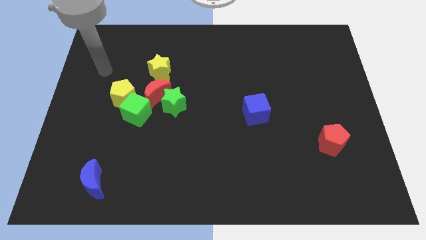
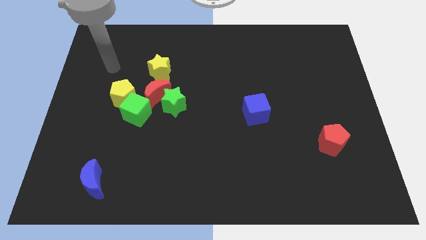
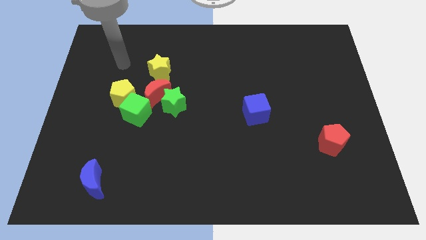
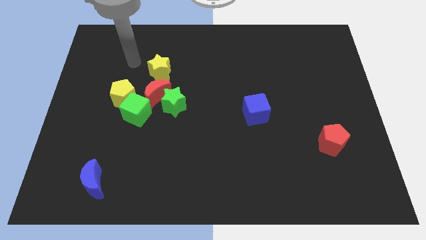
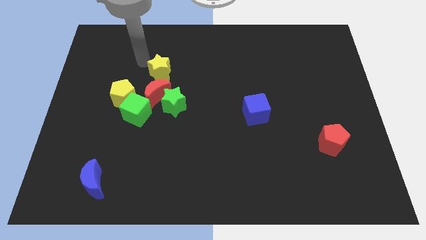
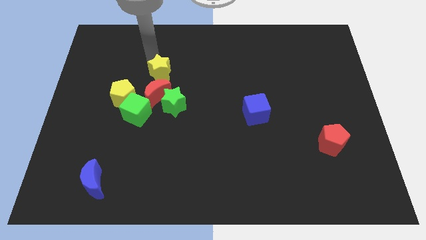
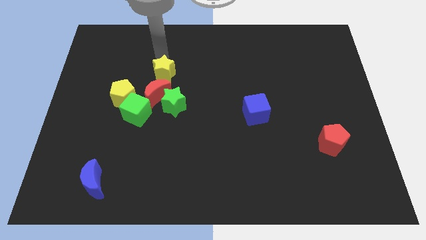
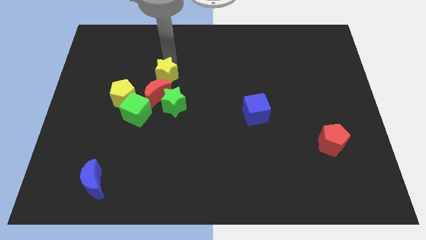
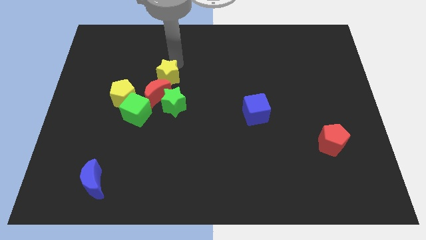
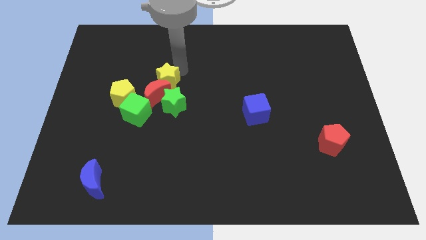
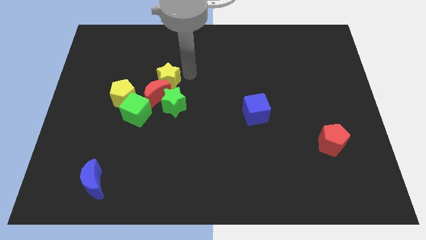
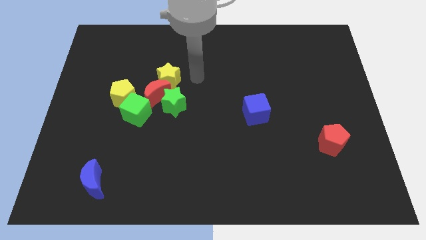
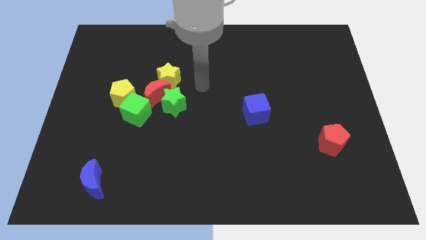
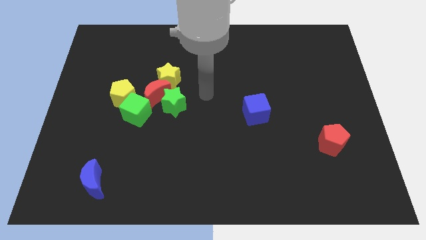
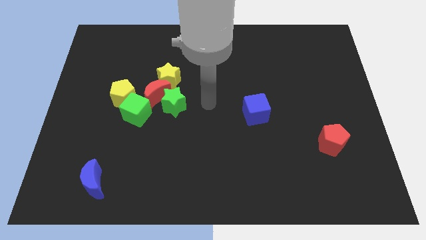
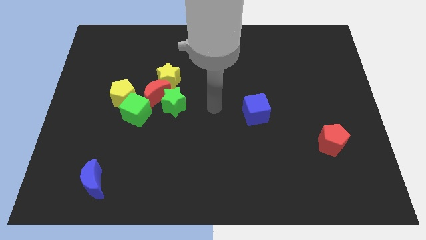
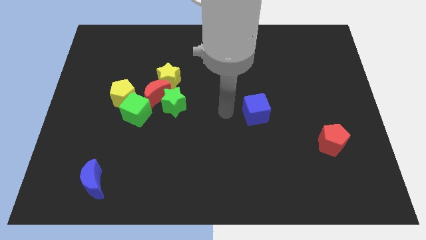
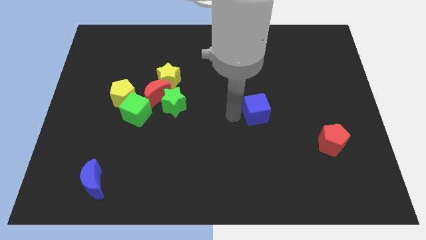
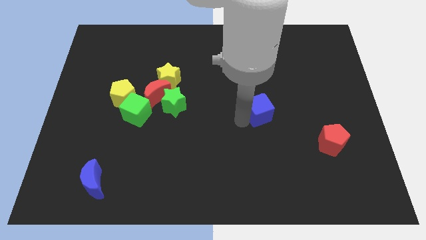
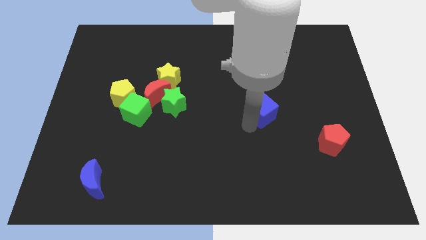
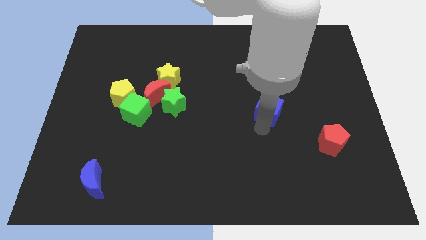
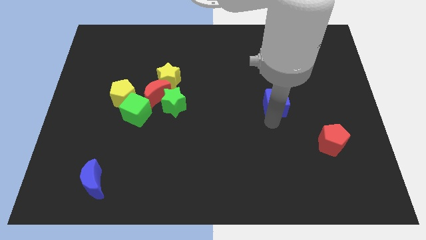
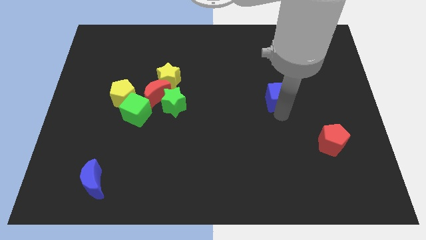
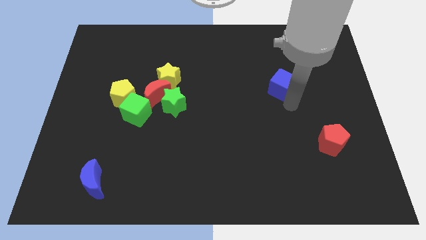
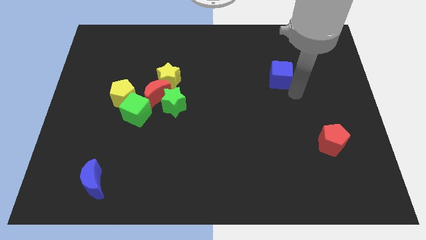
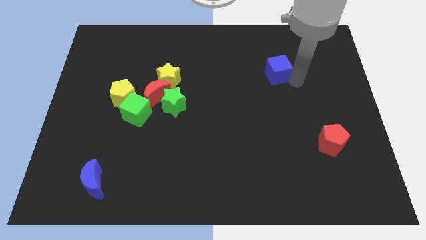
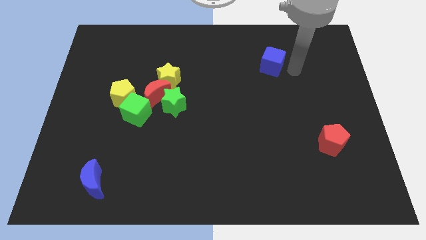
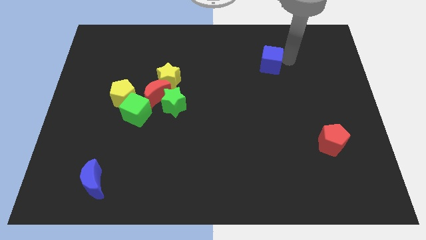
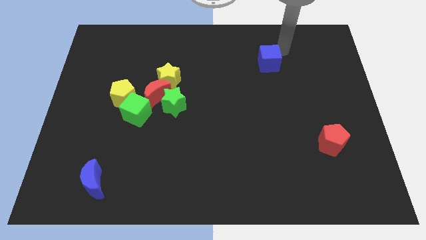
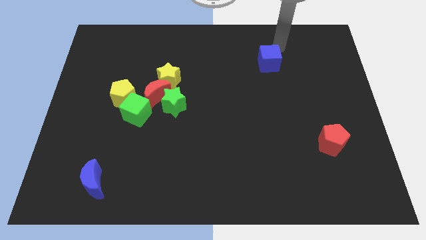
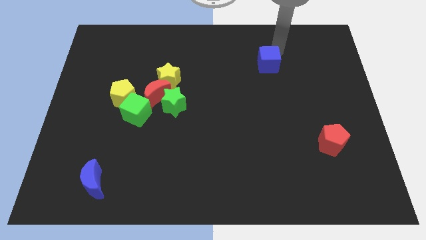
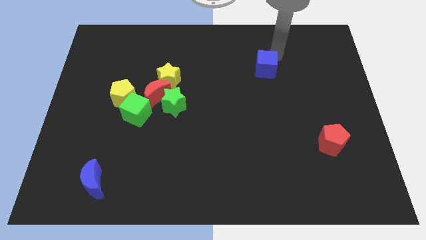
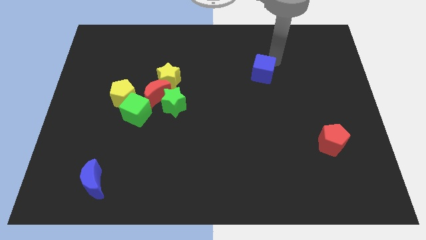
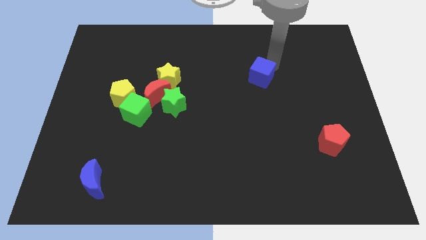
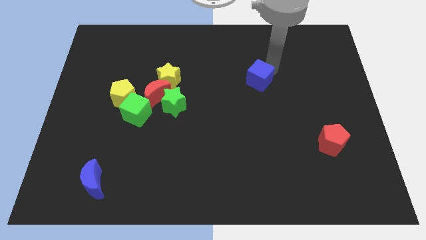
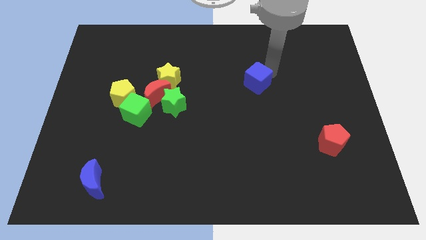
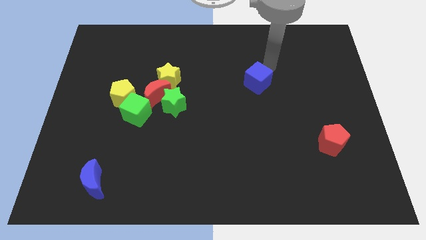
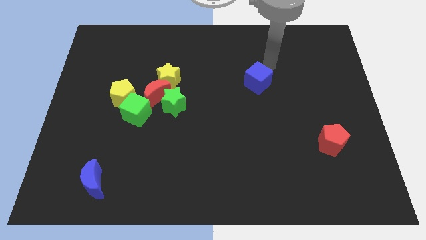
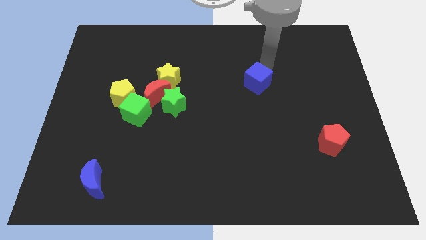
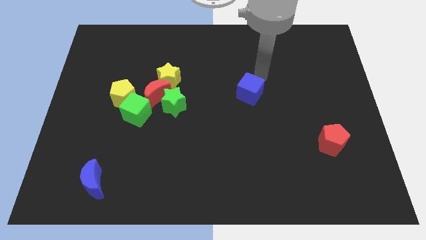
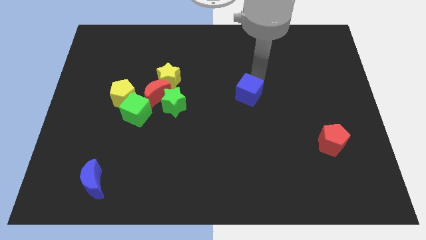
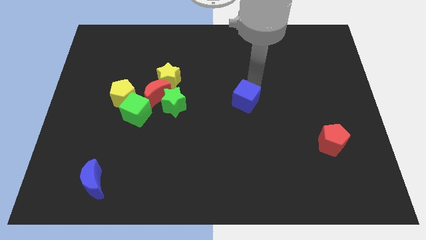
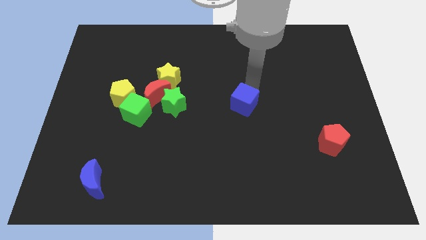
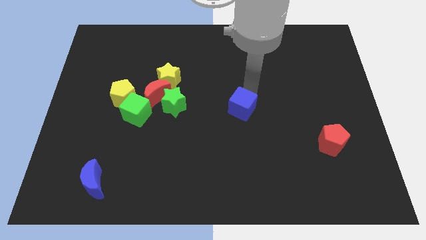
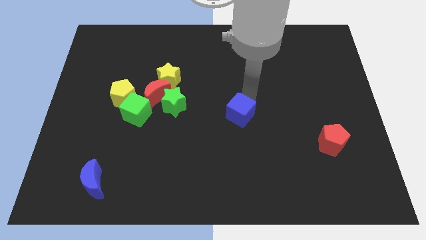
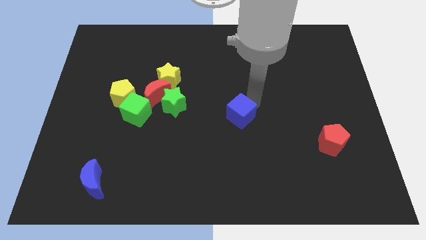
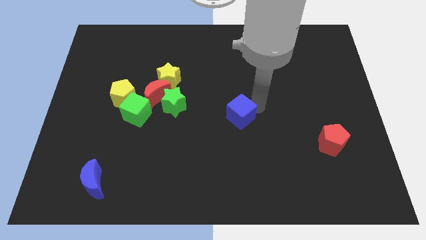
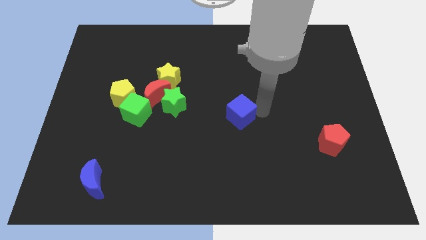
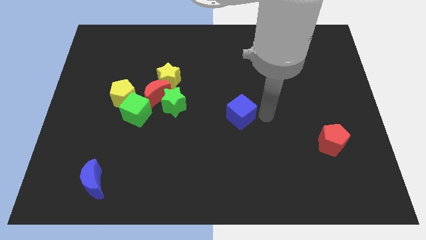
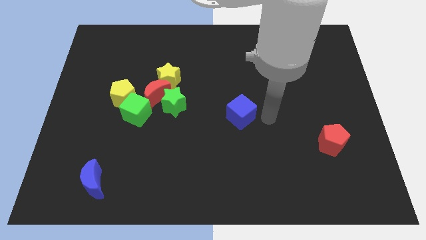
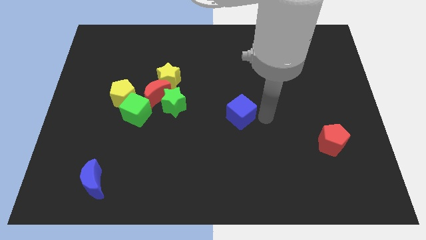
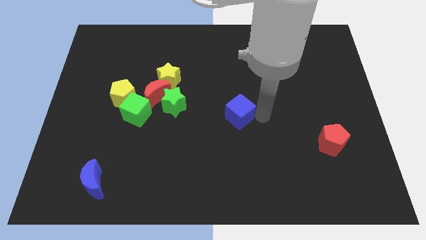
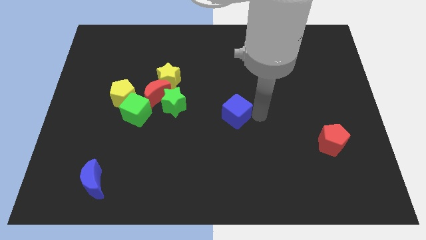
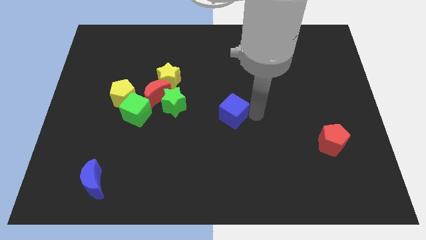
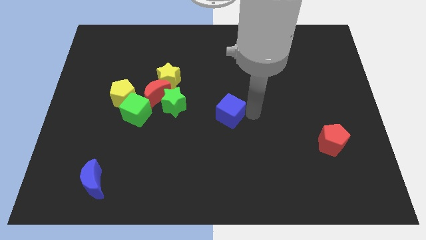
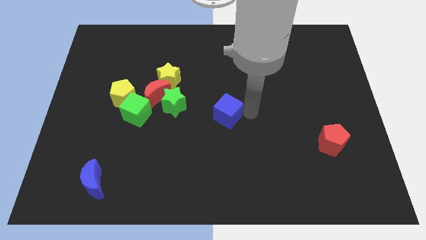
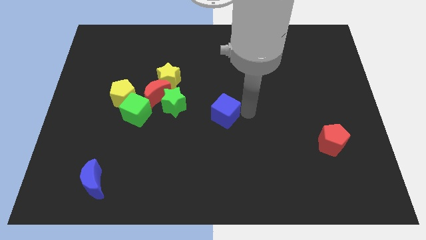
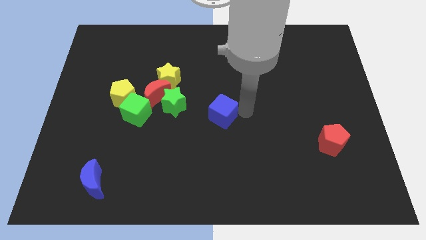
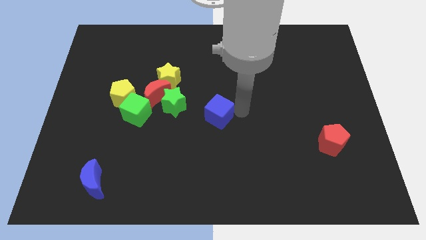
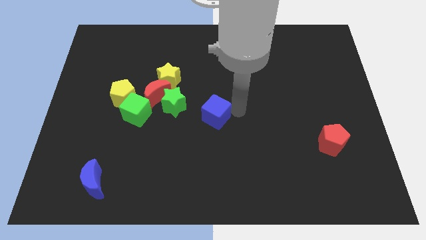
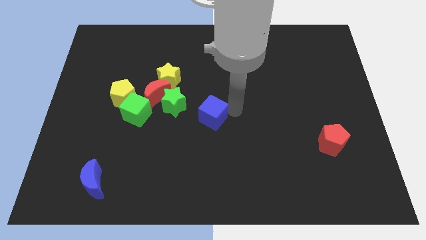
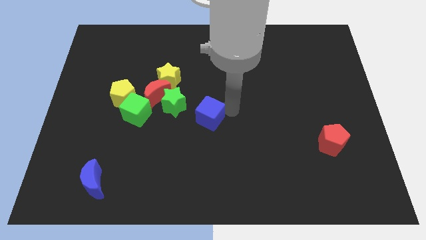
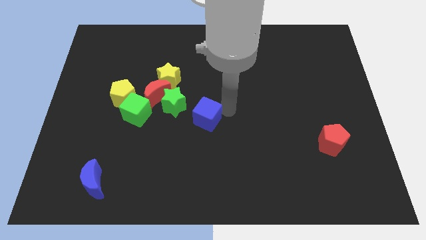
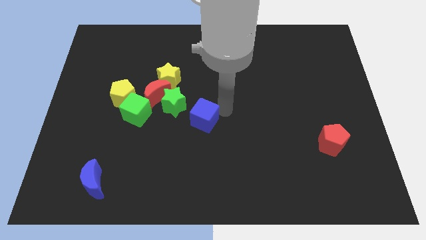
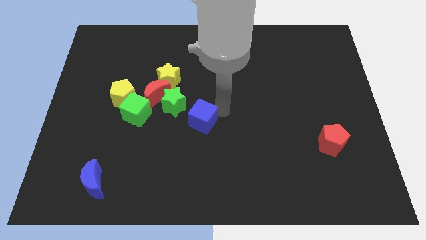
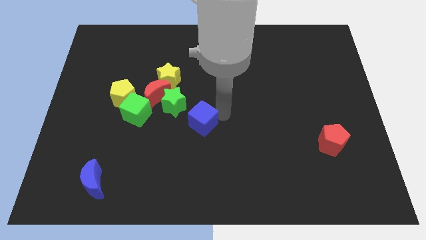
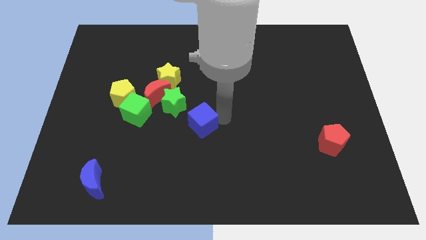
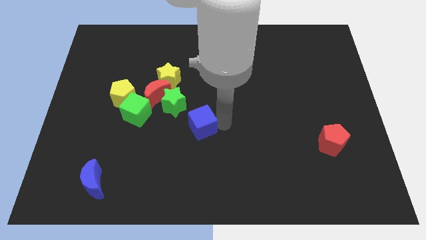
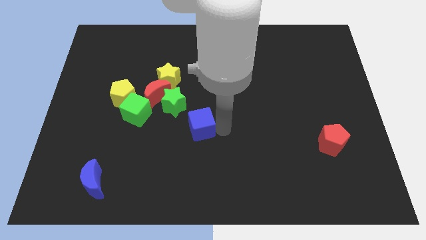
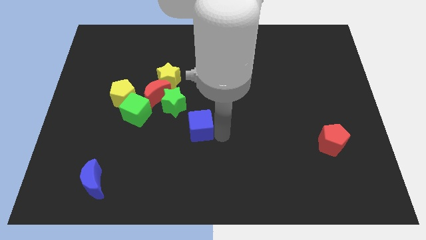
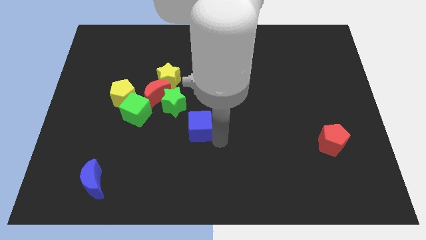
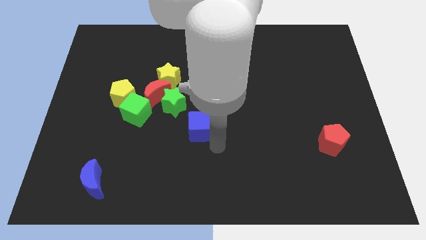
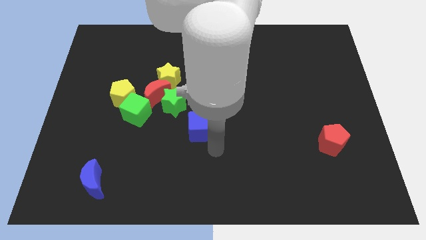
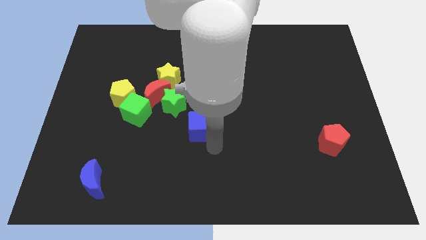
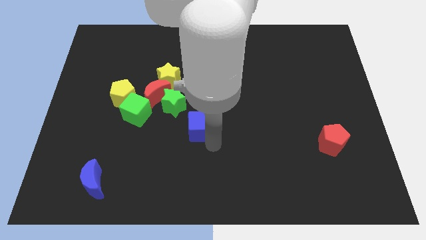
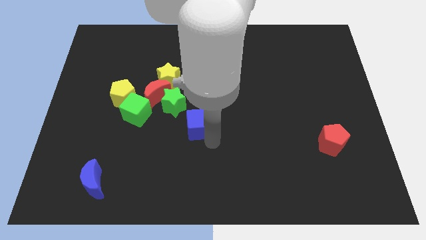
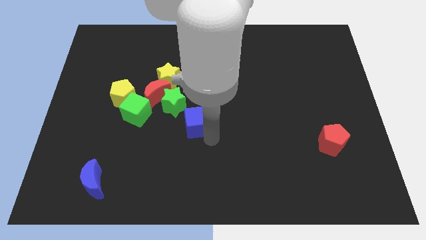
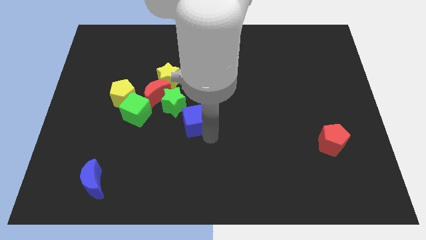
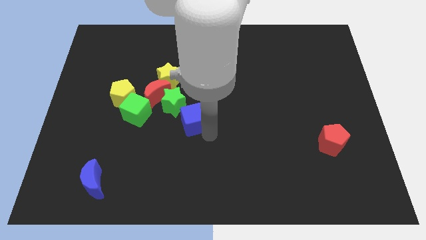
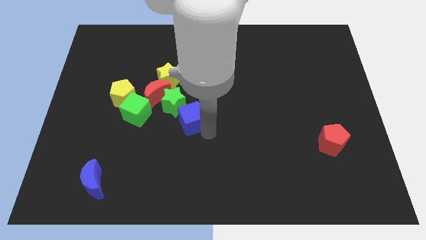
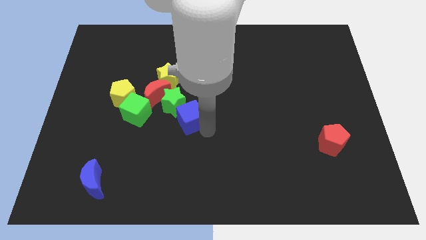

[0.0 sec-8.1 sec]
put the blue cube towards the green star
